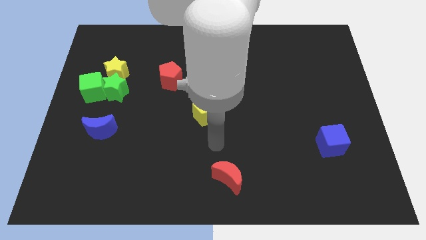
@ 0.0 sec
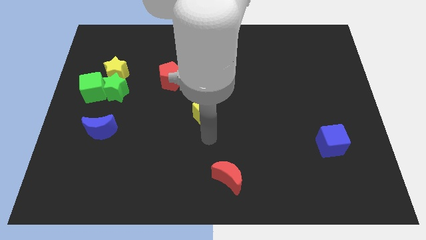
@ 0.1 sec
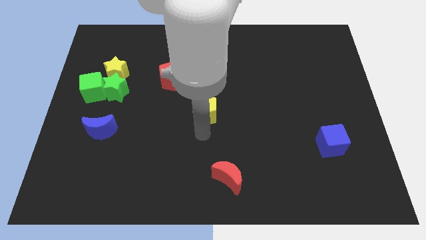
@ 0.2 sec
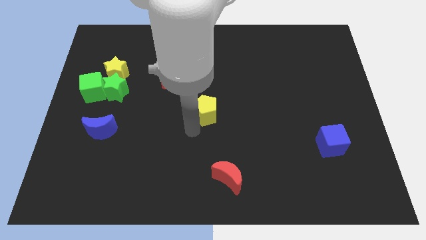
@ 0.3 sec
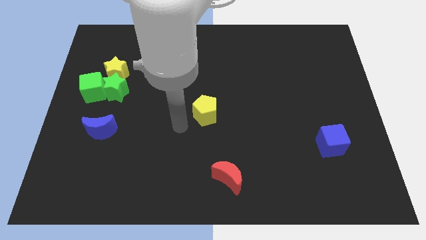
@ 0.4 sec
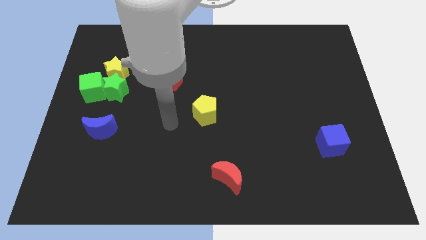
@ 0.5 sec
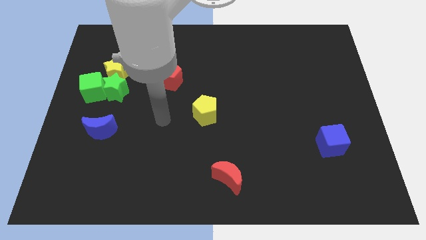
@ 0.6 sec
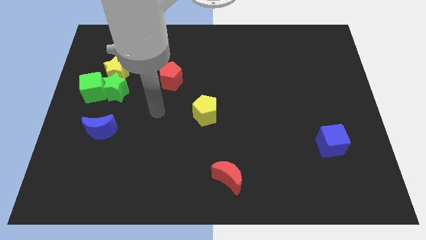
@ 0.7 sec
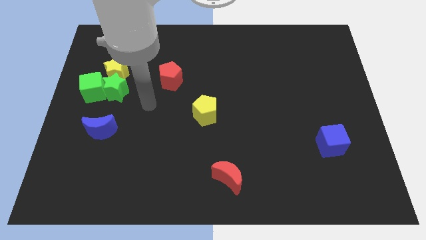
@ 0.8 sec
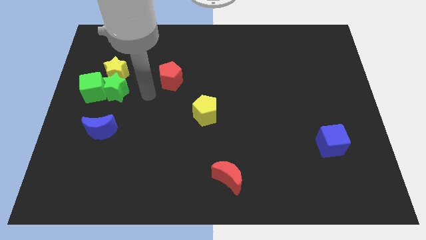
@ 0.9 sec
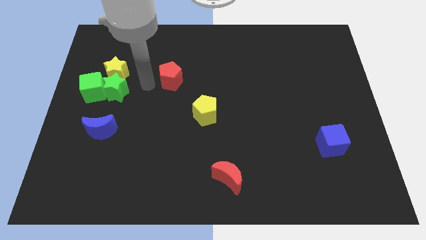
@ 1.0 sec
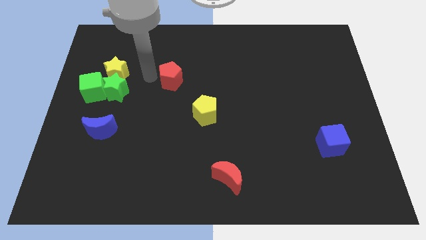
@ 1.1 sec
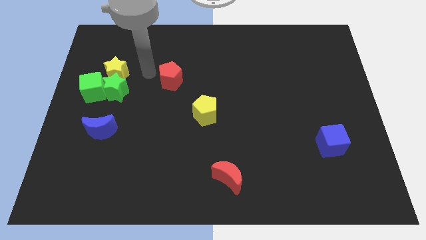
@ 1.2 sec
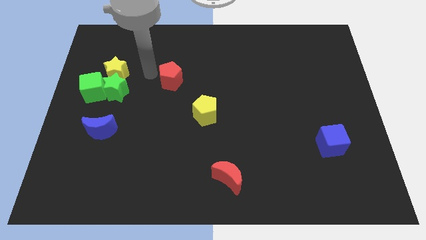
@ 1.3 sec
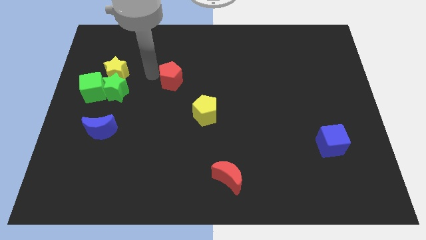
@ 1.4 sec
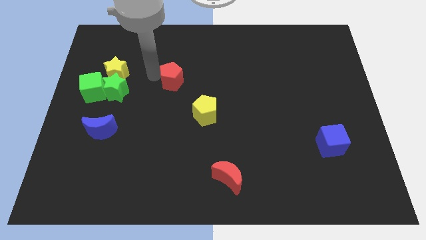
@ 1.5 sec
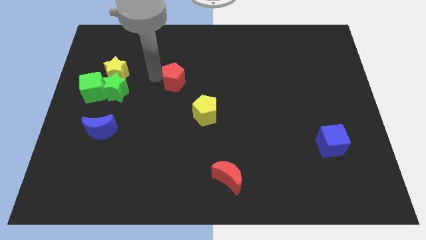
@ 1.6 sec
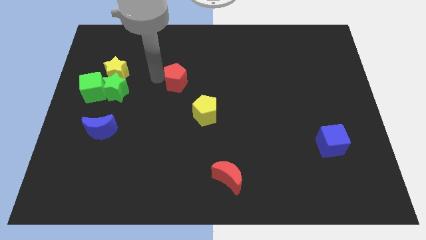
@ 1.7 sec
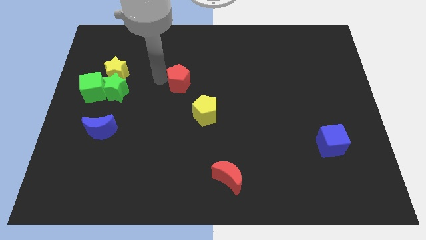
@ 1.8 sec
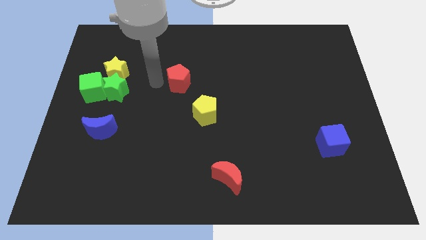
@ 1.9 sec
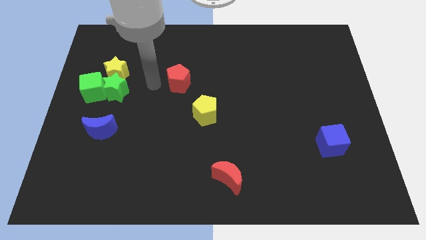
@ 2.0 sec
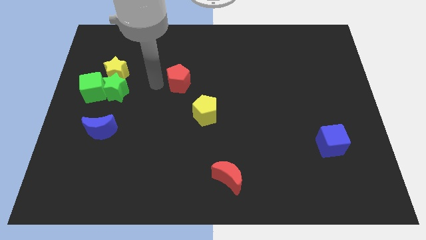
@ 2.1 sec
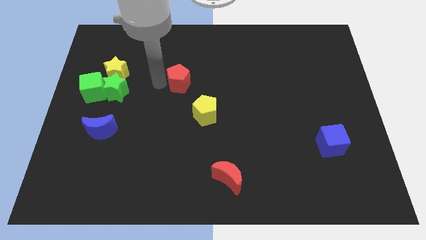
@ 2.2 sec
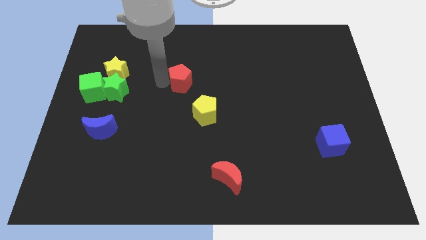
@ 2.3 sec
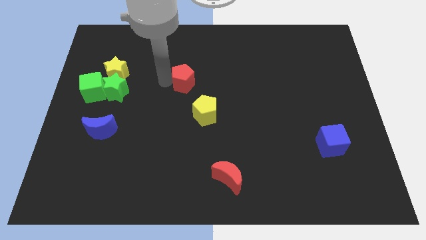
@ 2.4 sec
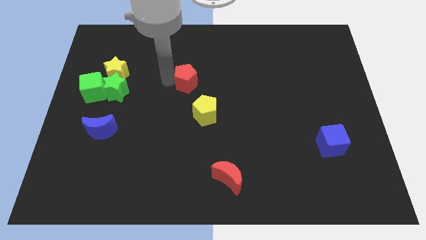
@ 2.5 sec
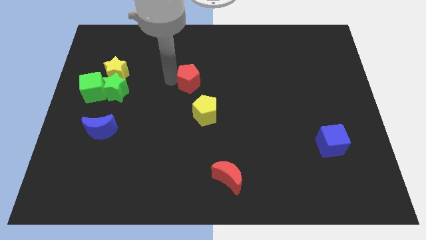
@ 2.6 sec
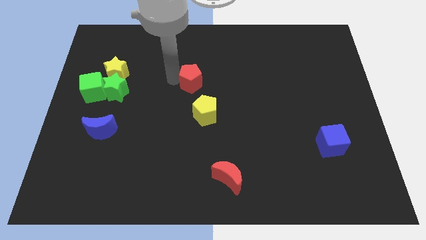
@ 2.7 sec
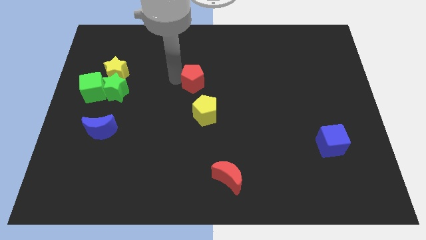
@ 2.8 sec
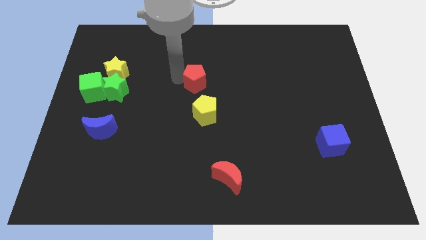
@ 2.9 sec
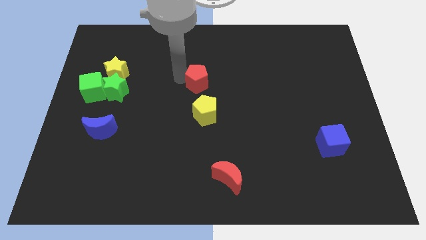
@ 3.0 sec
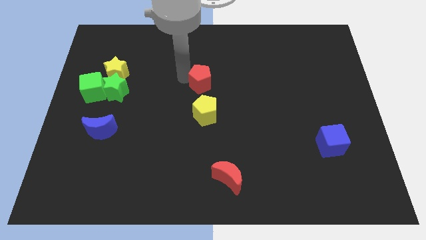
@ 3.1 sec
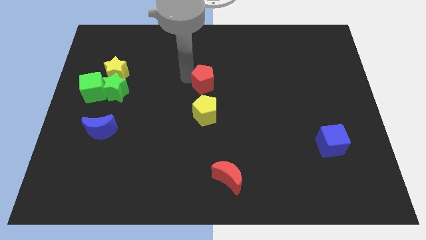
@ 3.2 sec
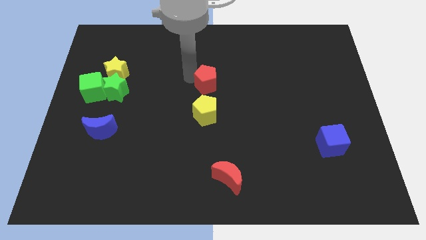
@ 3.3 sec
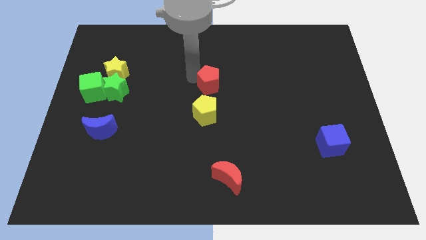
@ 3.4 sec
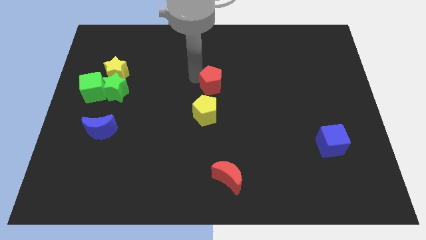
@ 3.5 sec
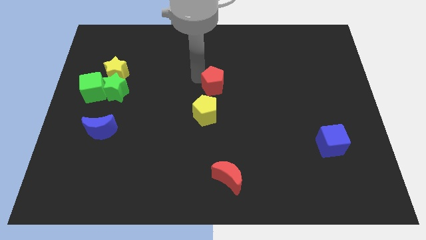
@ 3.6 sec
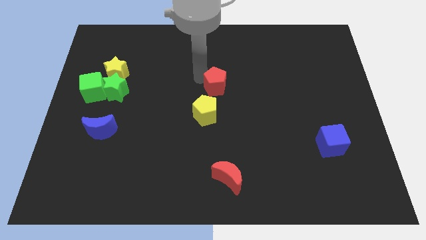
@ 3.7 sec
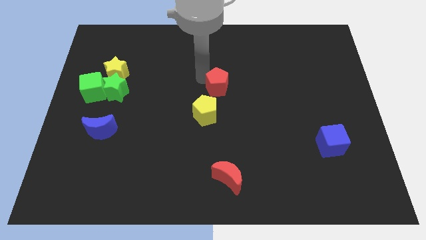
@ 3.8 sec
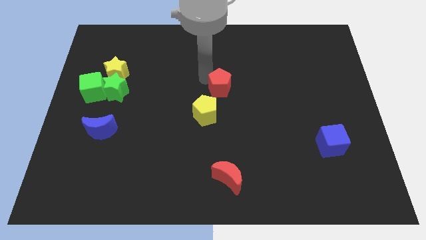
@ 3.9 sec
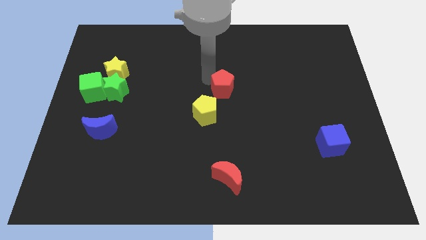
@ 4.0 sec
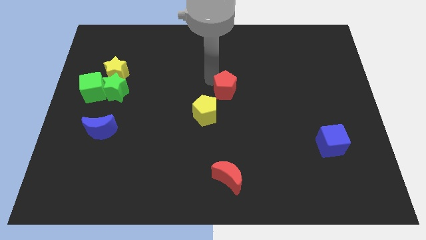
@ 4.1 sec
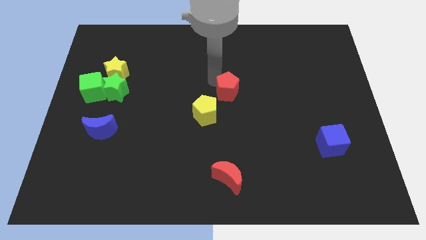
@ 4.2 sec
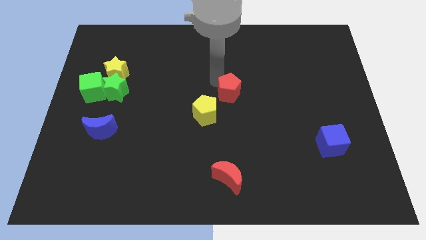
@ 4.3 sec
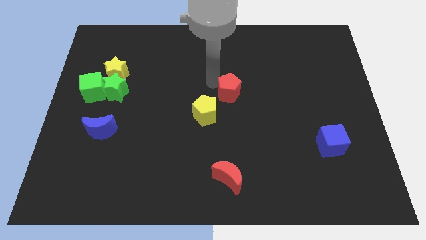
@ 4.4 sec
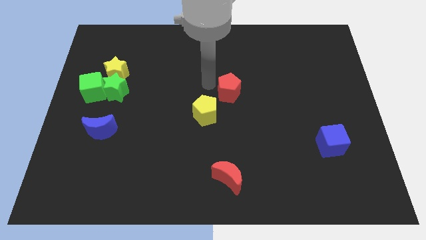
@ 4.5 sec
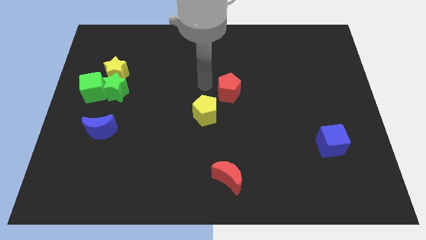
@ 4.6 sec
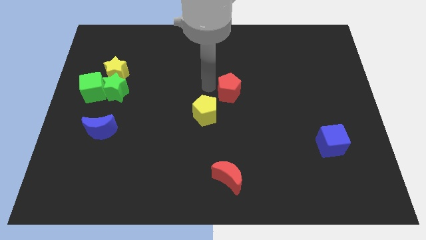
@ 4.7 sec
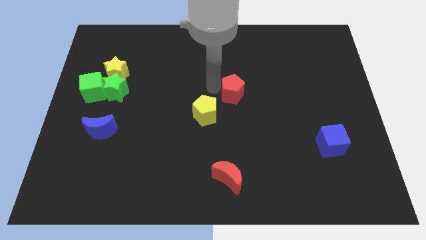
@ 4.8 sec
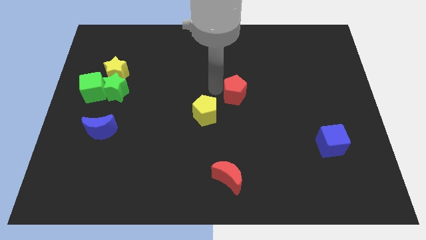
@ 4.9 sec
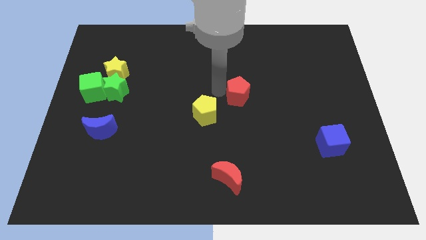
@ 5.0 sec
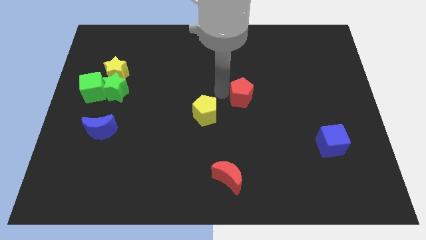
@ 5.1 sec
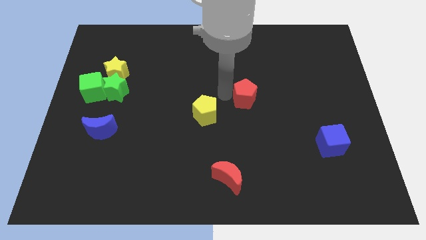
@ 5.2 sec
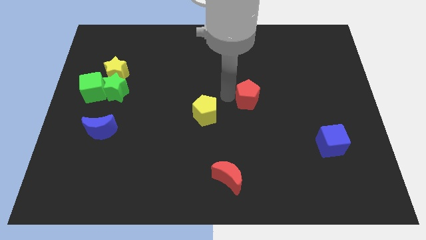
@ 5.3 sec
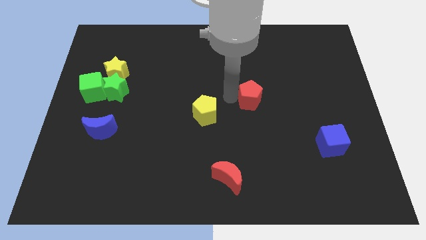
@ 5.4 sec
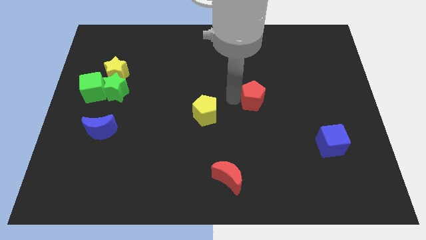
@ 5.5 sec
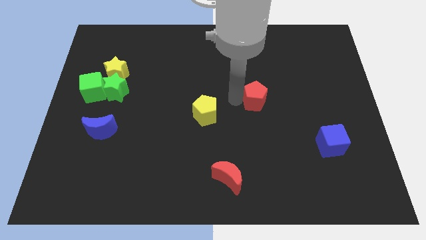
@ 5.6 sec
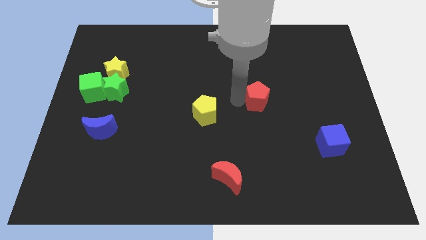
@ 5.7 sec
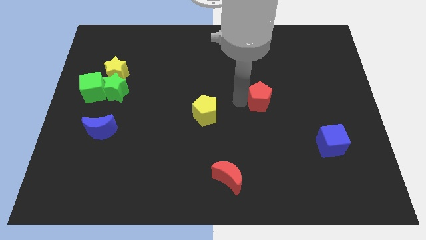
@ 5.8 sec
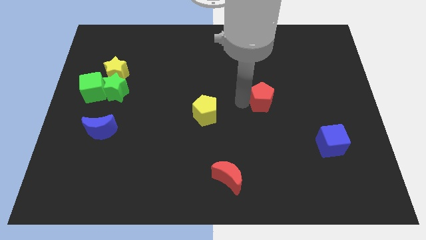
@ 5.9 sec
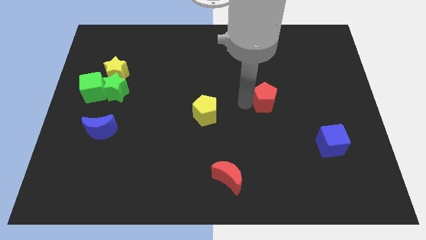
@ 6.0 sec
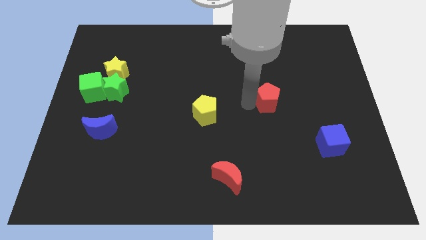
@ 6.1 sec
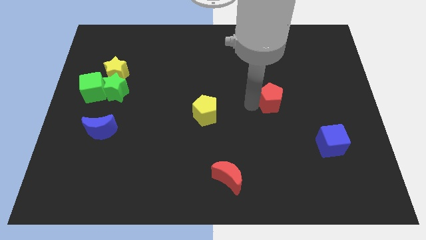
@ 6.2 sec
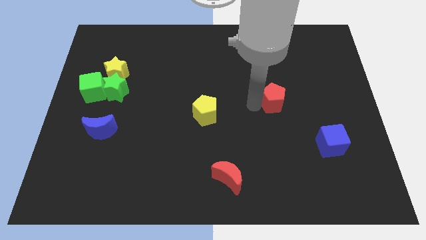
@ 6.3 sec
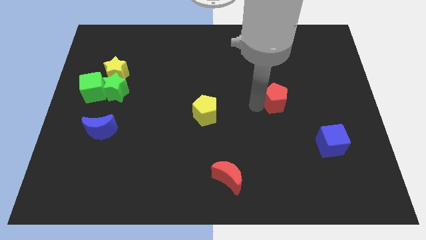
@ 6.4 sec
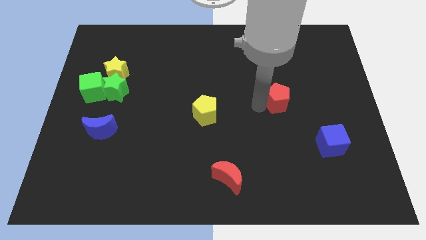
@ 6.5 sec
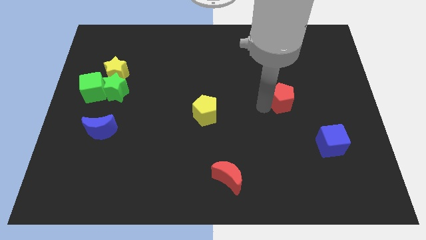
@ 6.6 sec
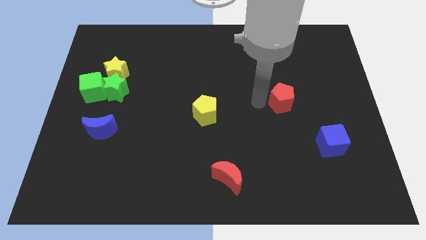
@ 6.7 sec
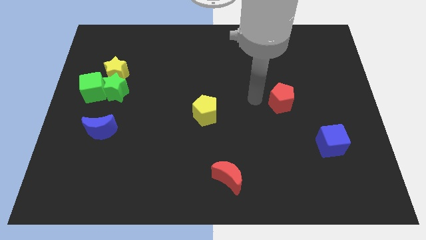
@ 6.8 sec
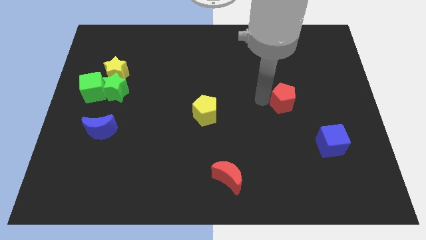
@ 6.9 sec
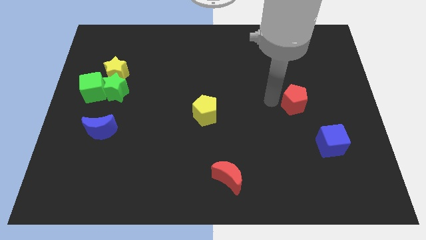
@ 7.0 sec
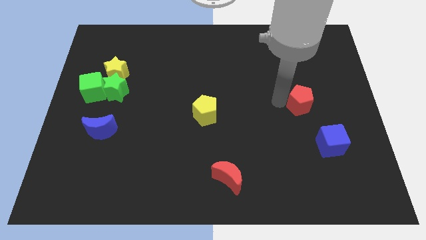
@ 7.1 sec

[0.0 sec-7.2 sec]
push the red pentagon to the top of the blue cube

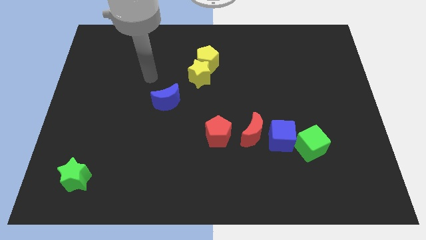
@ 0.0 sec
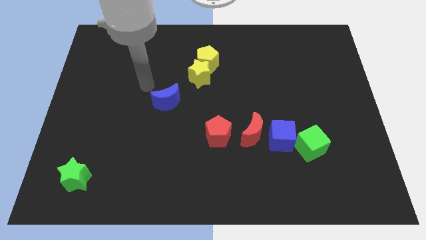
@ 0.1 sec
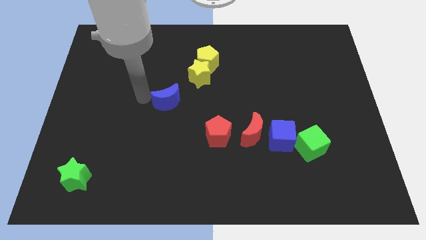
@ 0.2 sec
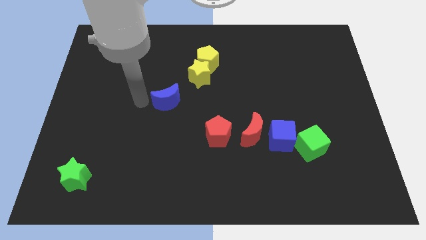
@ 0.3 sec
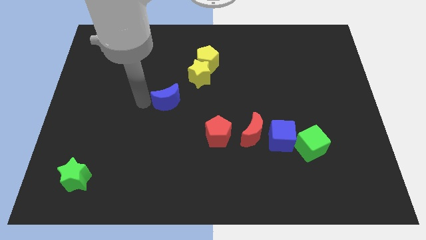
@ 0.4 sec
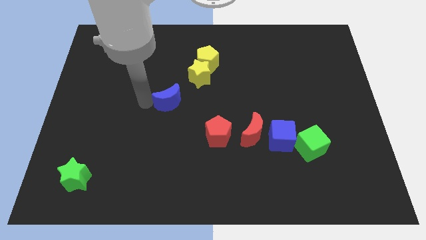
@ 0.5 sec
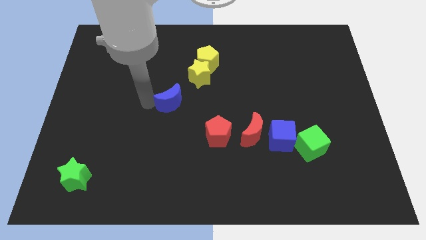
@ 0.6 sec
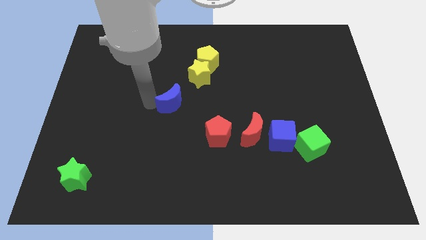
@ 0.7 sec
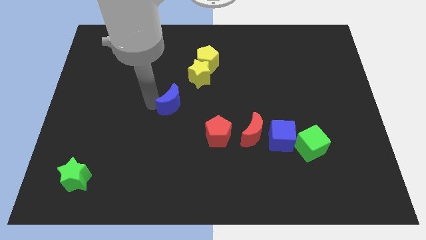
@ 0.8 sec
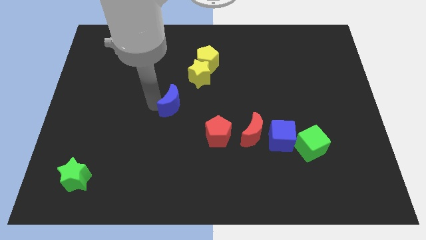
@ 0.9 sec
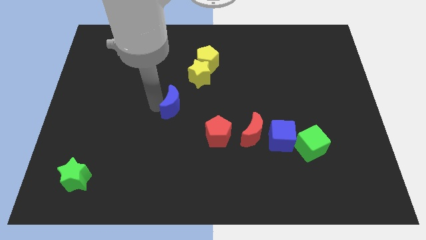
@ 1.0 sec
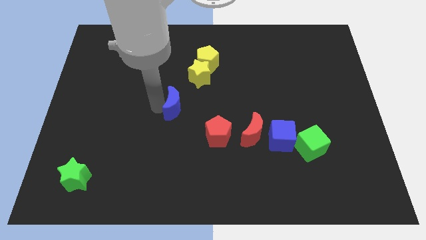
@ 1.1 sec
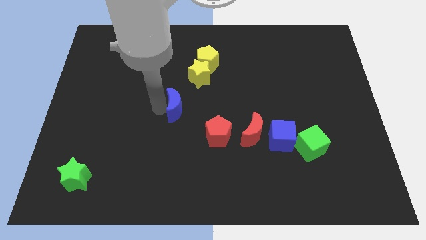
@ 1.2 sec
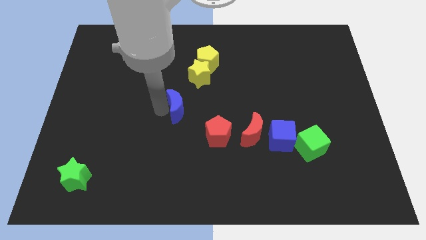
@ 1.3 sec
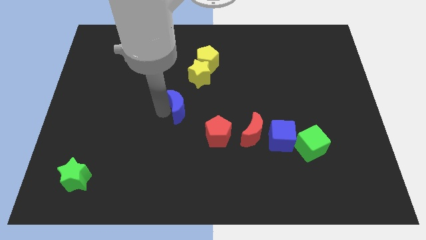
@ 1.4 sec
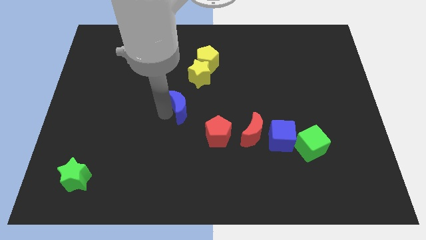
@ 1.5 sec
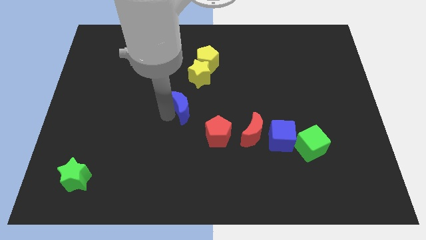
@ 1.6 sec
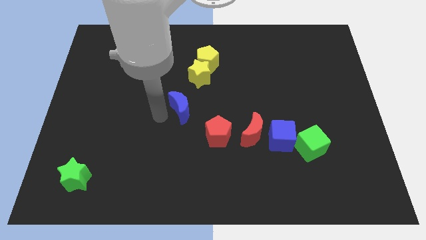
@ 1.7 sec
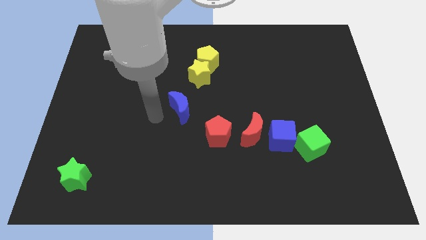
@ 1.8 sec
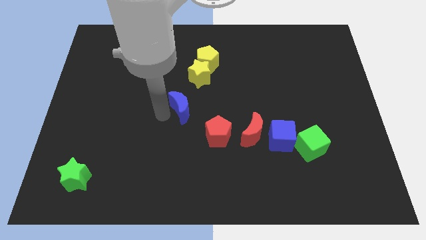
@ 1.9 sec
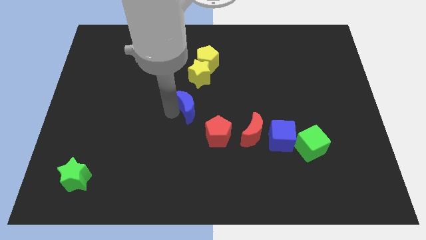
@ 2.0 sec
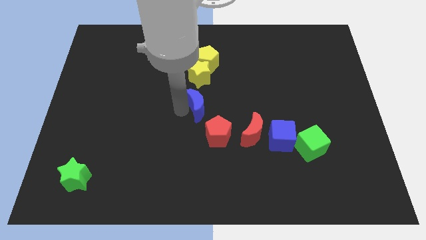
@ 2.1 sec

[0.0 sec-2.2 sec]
move the blue moon to the top side of the red pentagon
